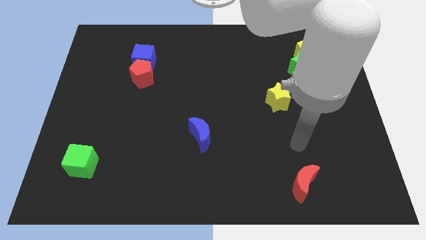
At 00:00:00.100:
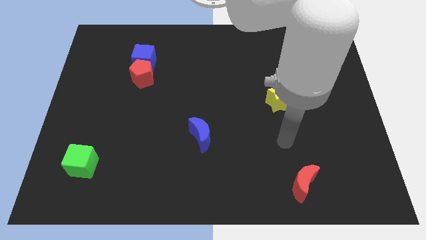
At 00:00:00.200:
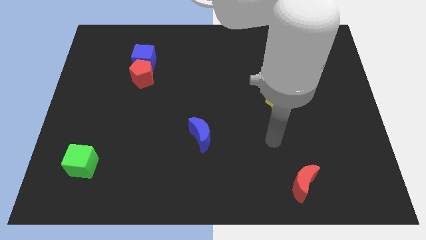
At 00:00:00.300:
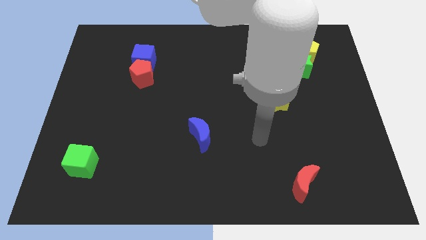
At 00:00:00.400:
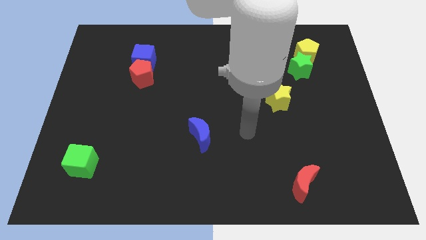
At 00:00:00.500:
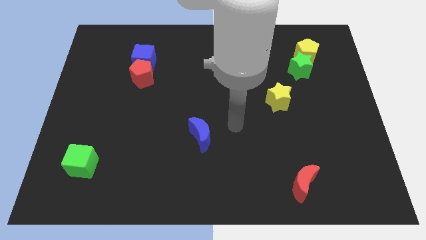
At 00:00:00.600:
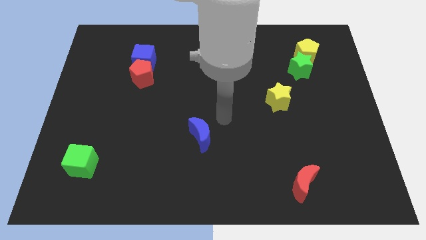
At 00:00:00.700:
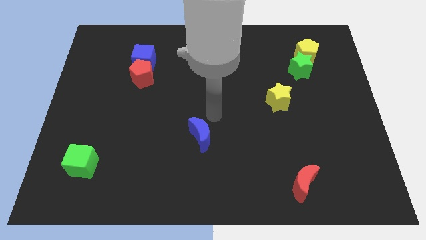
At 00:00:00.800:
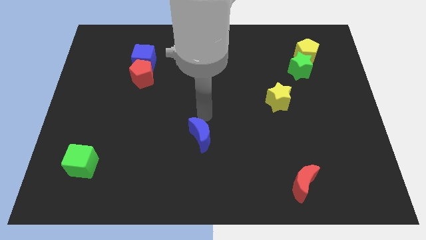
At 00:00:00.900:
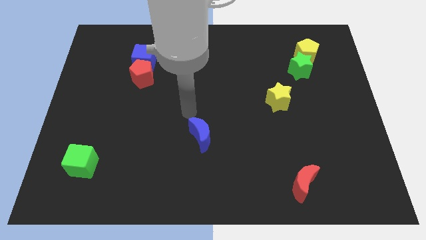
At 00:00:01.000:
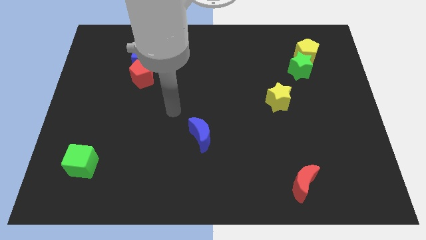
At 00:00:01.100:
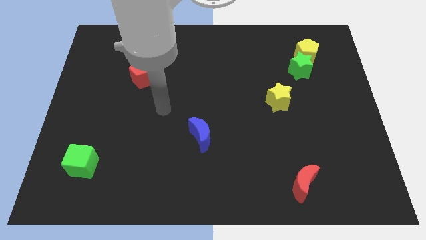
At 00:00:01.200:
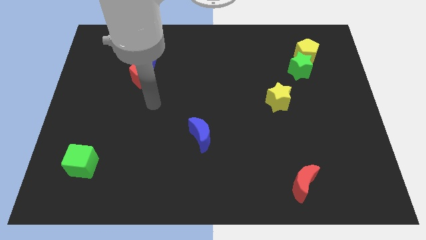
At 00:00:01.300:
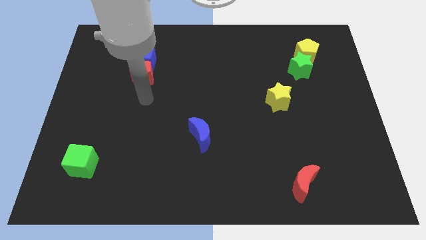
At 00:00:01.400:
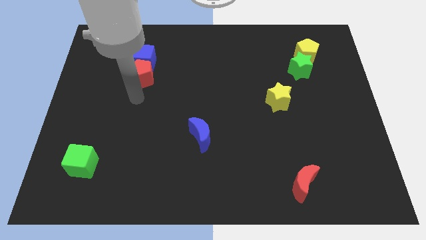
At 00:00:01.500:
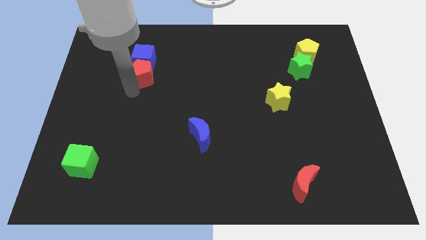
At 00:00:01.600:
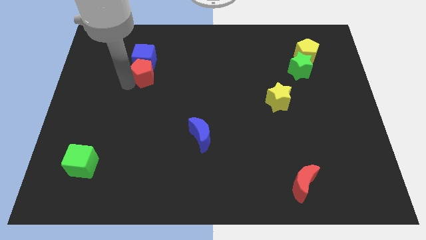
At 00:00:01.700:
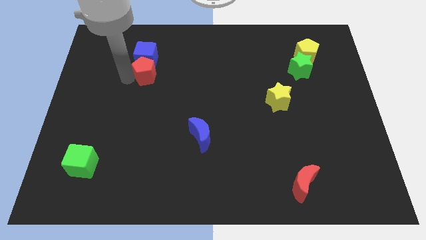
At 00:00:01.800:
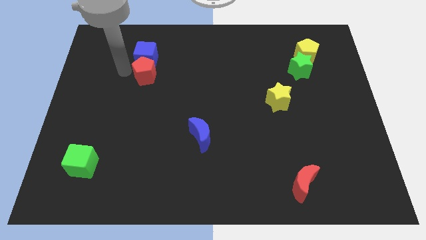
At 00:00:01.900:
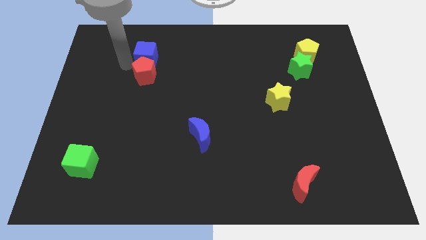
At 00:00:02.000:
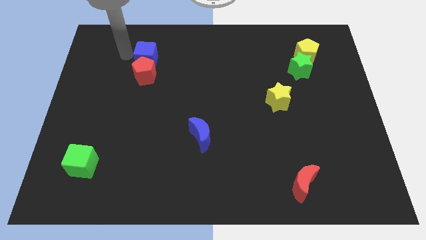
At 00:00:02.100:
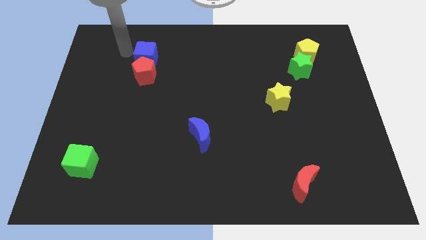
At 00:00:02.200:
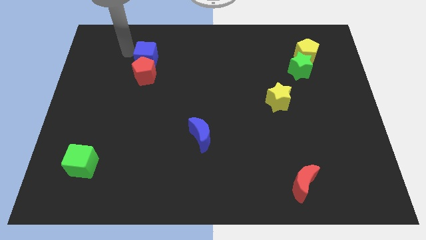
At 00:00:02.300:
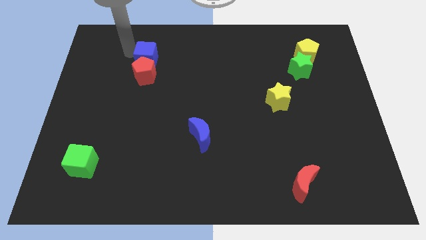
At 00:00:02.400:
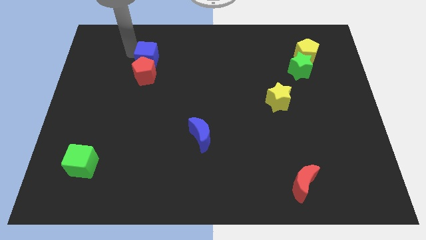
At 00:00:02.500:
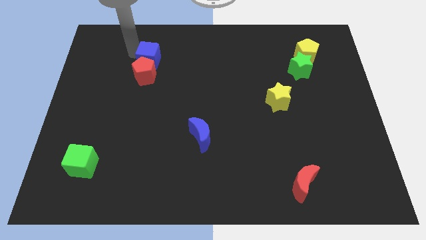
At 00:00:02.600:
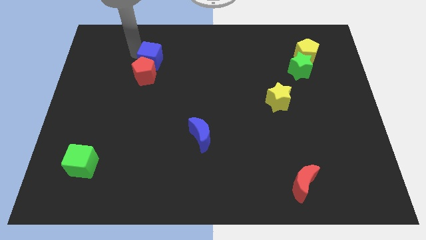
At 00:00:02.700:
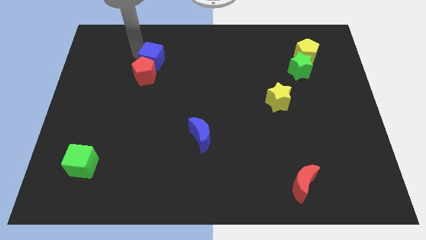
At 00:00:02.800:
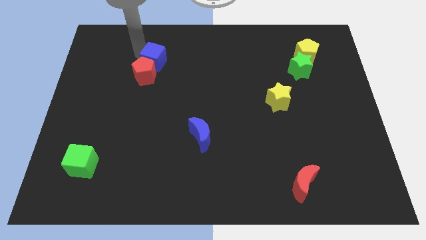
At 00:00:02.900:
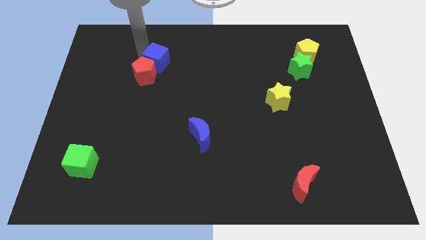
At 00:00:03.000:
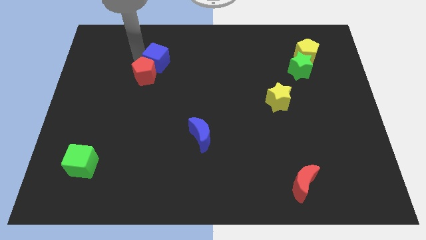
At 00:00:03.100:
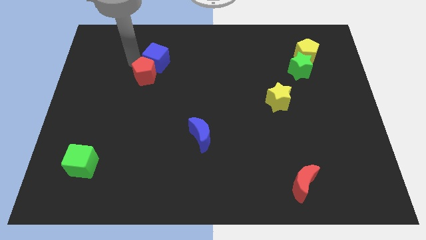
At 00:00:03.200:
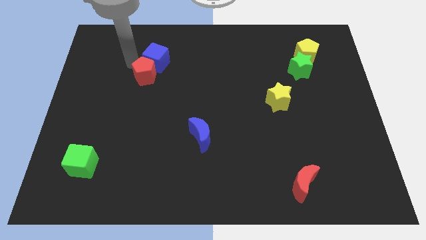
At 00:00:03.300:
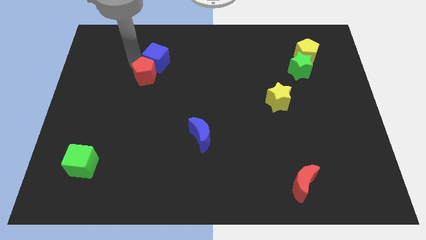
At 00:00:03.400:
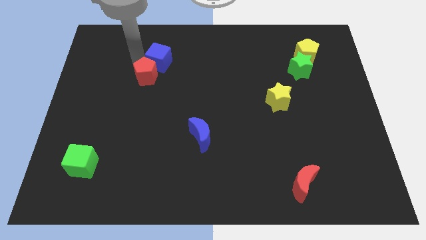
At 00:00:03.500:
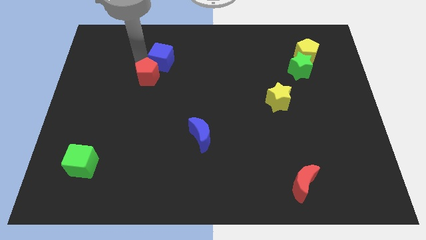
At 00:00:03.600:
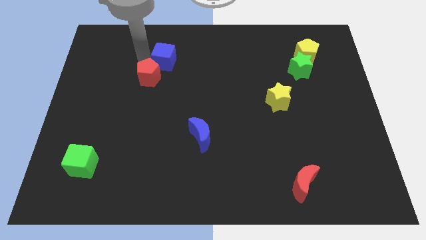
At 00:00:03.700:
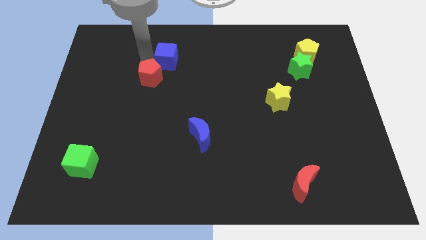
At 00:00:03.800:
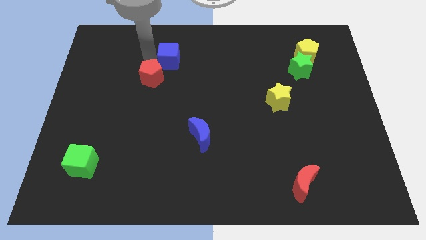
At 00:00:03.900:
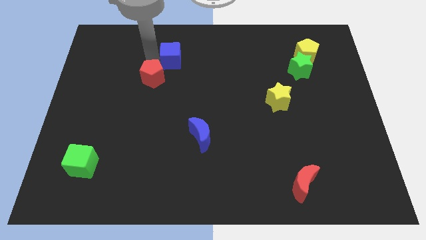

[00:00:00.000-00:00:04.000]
slide the blue cube a bit right

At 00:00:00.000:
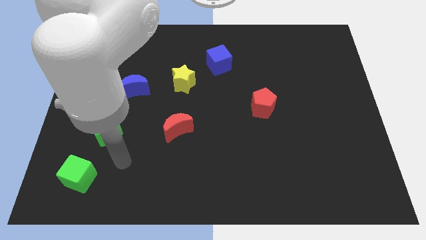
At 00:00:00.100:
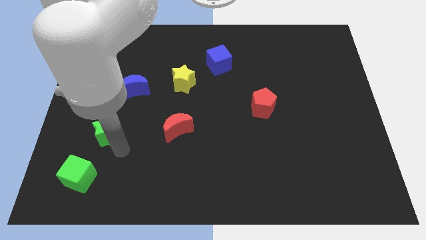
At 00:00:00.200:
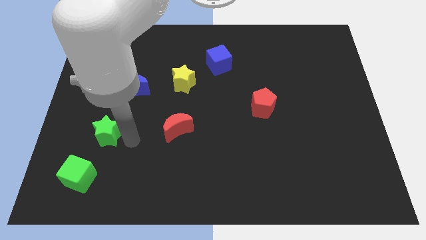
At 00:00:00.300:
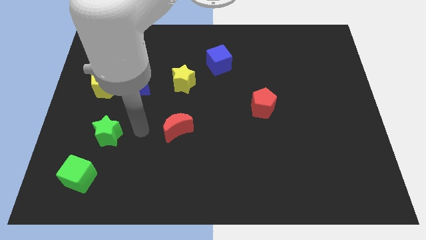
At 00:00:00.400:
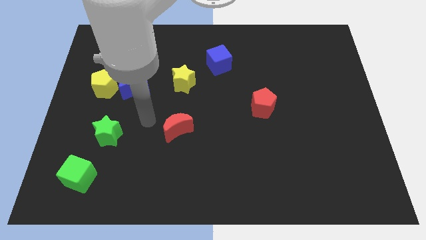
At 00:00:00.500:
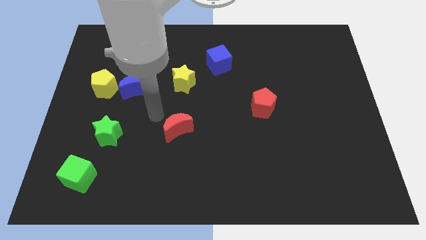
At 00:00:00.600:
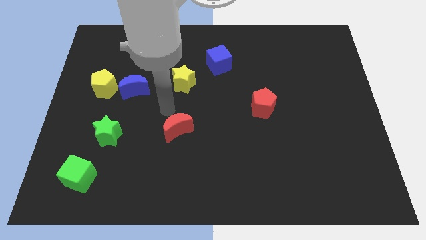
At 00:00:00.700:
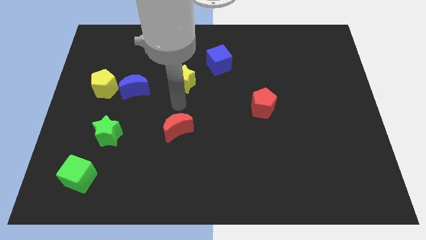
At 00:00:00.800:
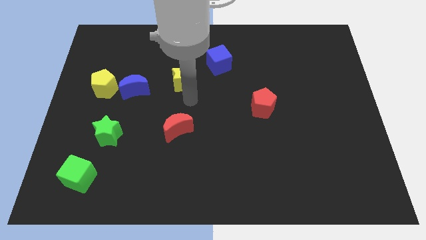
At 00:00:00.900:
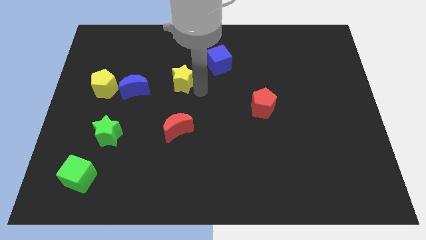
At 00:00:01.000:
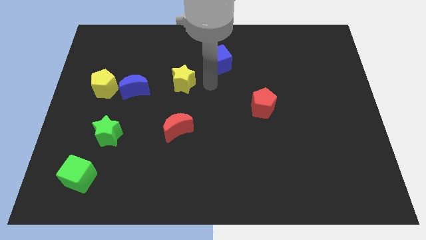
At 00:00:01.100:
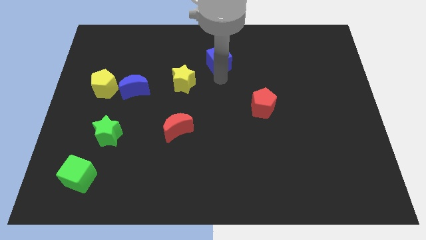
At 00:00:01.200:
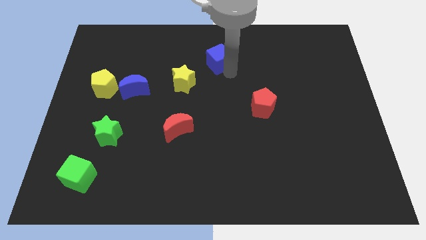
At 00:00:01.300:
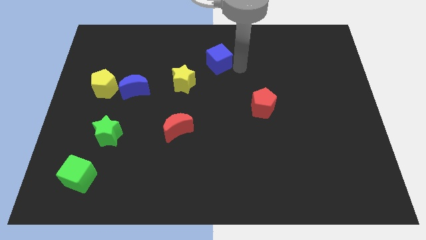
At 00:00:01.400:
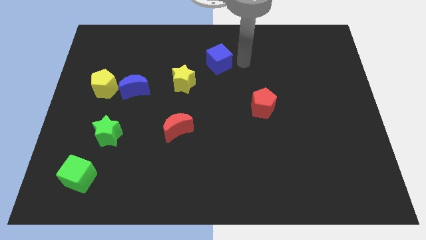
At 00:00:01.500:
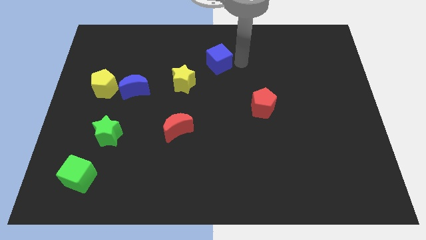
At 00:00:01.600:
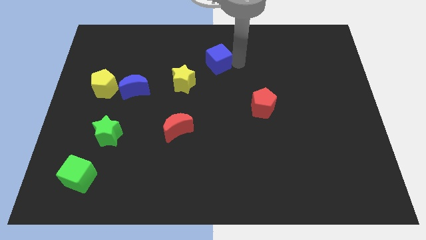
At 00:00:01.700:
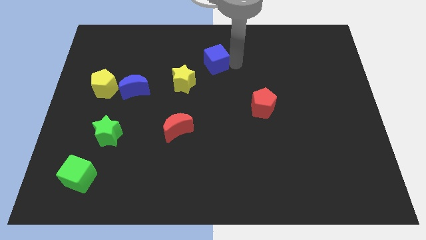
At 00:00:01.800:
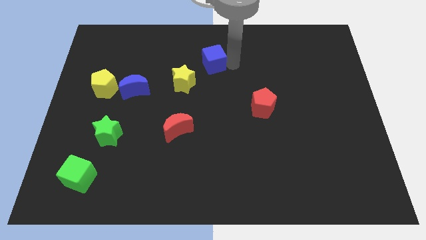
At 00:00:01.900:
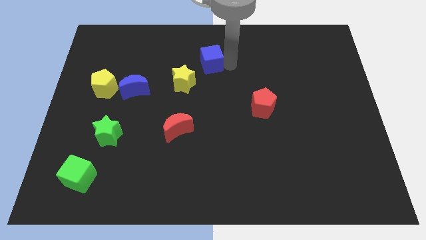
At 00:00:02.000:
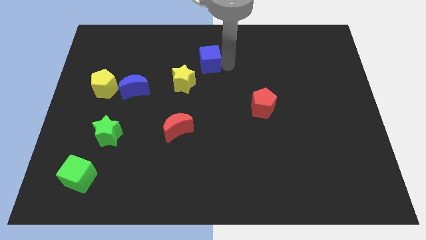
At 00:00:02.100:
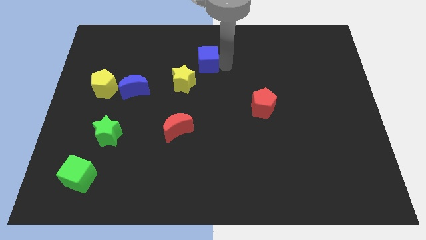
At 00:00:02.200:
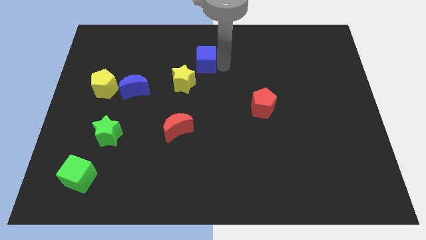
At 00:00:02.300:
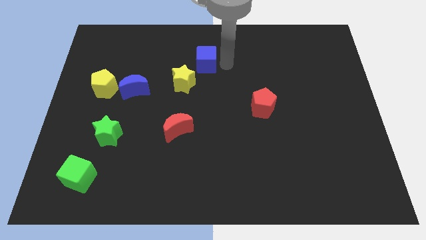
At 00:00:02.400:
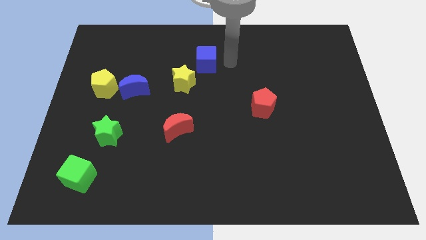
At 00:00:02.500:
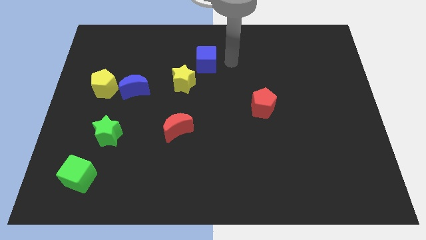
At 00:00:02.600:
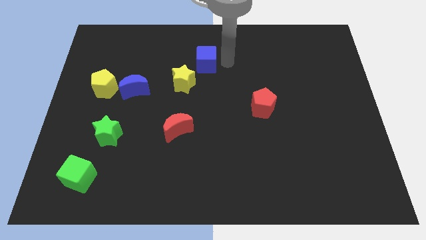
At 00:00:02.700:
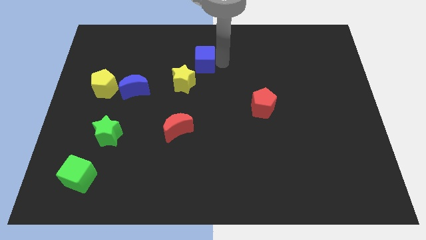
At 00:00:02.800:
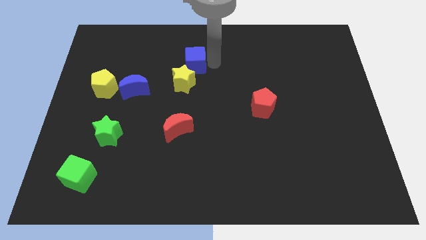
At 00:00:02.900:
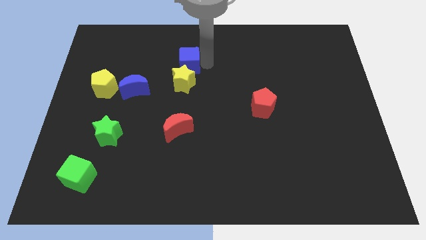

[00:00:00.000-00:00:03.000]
slide the blue cube a bit left

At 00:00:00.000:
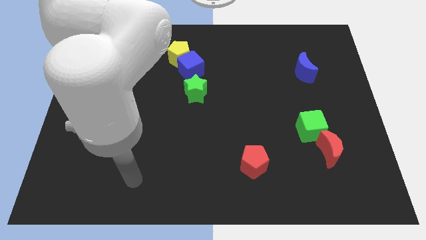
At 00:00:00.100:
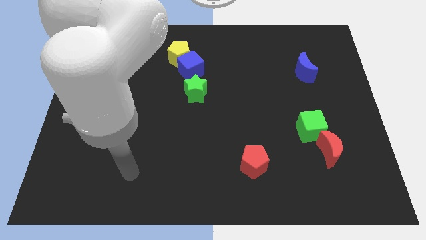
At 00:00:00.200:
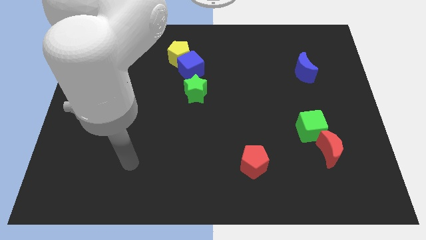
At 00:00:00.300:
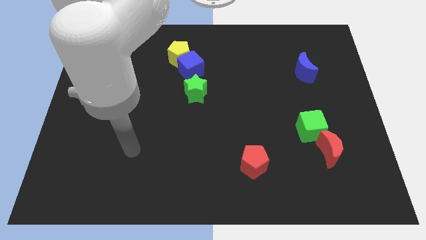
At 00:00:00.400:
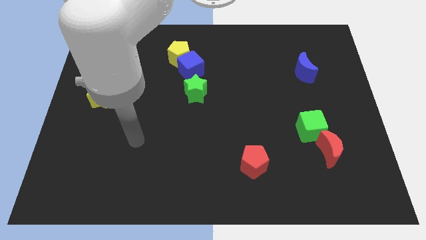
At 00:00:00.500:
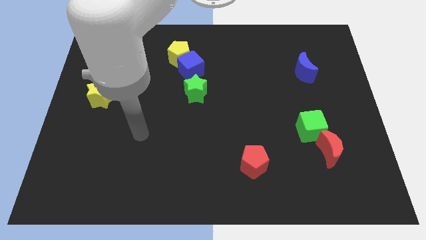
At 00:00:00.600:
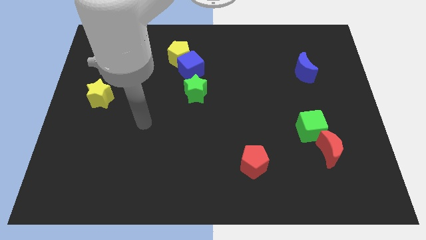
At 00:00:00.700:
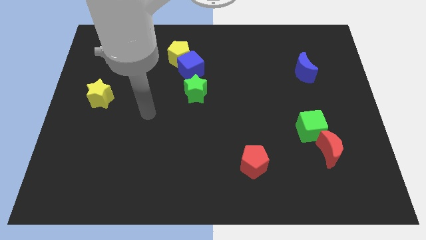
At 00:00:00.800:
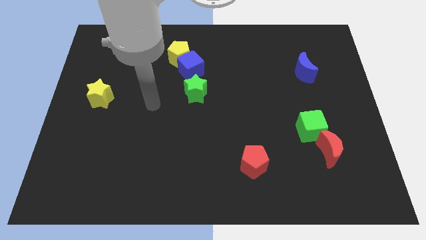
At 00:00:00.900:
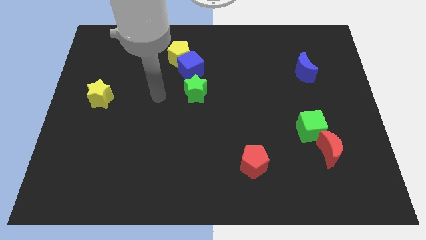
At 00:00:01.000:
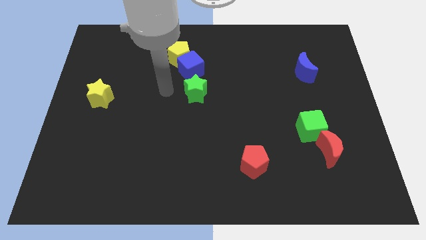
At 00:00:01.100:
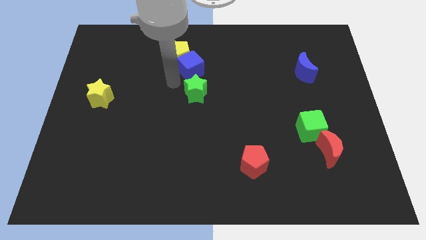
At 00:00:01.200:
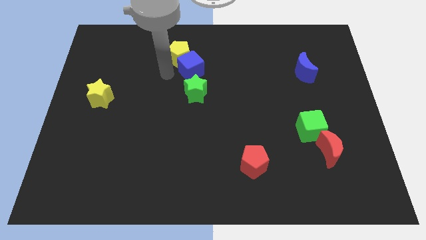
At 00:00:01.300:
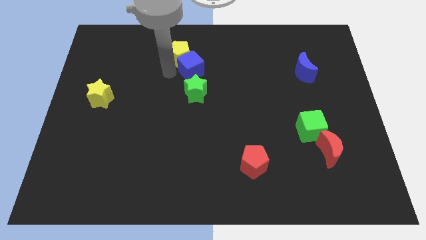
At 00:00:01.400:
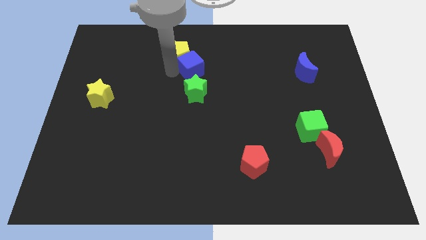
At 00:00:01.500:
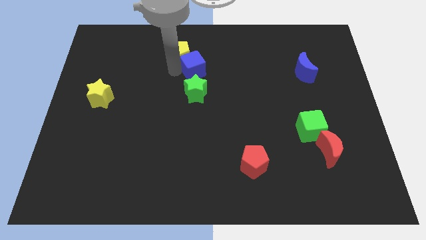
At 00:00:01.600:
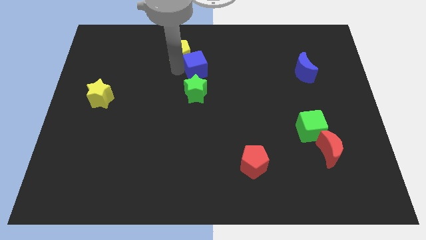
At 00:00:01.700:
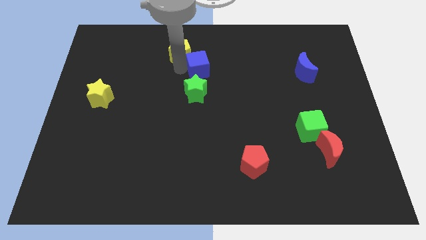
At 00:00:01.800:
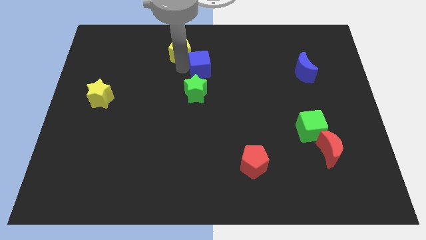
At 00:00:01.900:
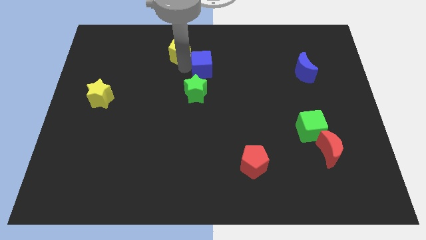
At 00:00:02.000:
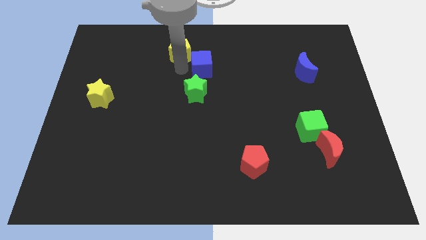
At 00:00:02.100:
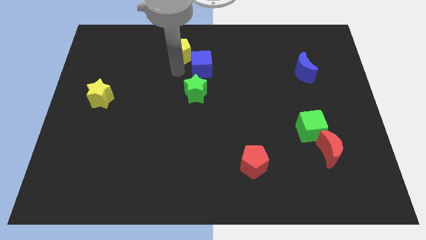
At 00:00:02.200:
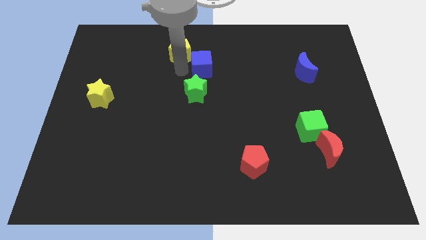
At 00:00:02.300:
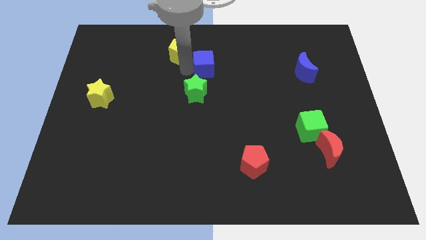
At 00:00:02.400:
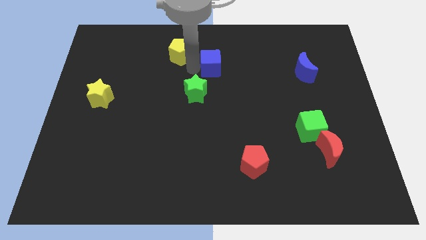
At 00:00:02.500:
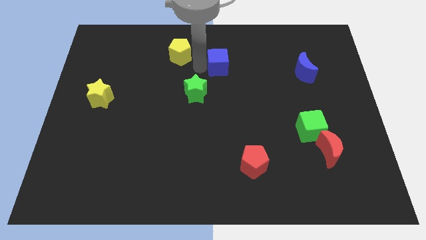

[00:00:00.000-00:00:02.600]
slightly push the blue cube to the right
